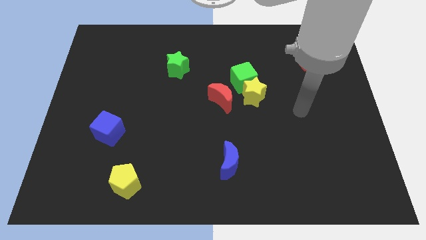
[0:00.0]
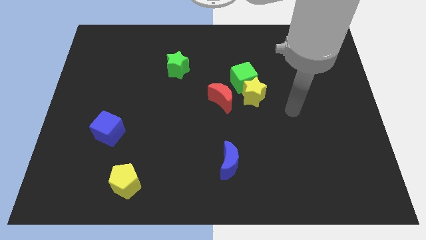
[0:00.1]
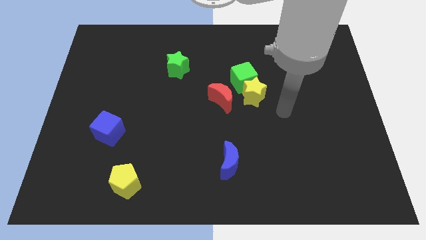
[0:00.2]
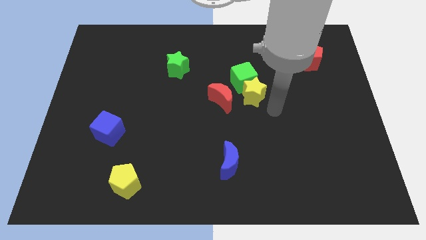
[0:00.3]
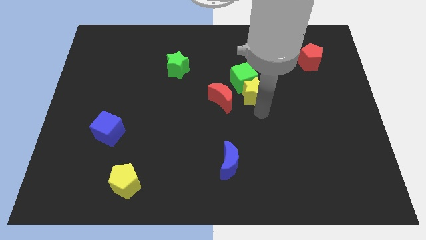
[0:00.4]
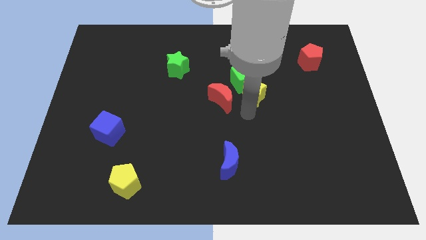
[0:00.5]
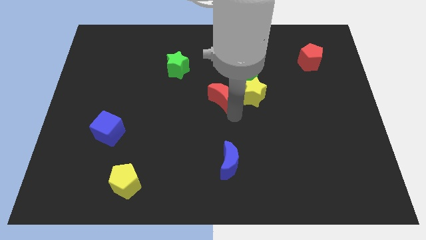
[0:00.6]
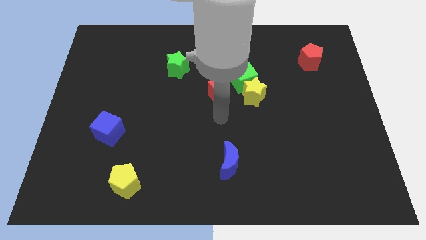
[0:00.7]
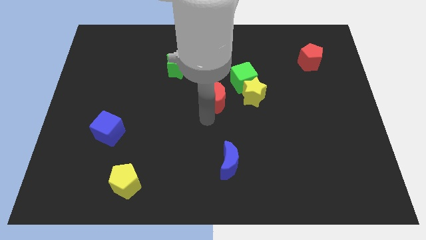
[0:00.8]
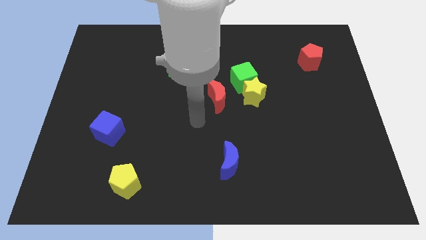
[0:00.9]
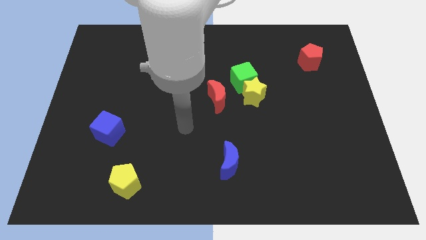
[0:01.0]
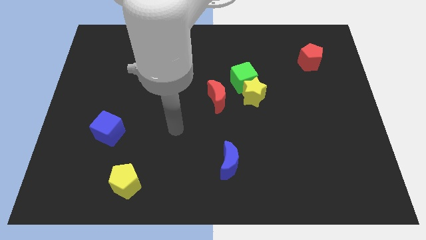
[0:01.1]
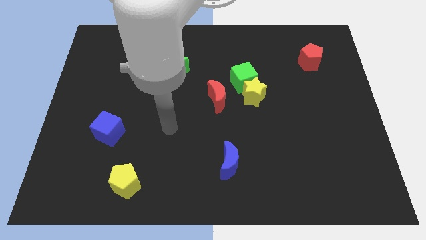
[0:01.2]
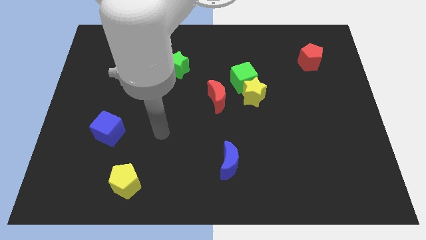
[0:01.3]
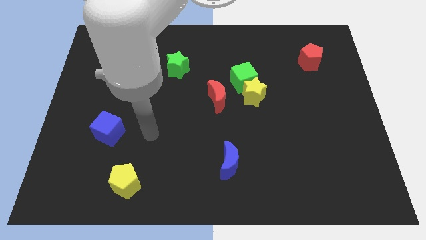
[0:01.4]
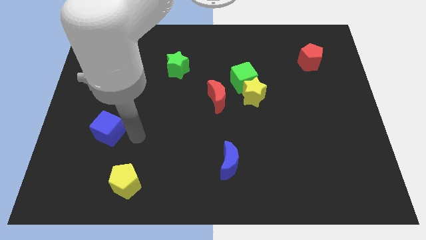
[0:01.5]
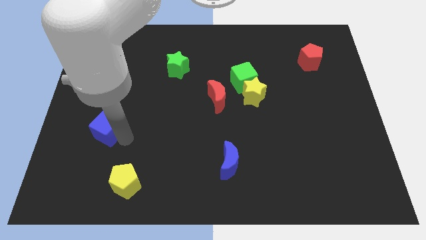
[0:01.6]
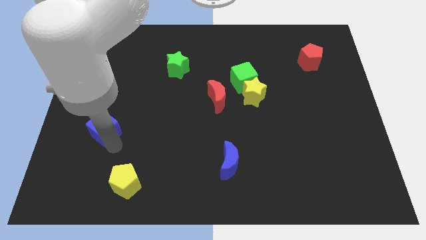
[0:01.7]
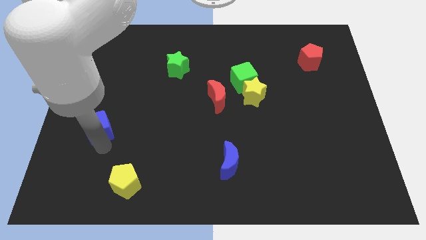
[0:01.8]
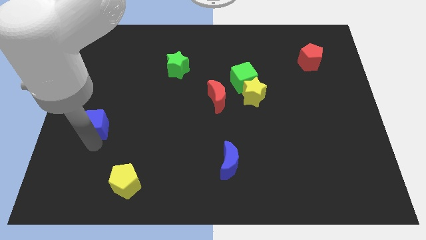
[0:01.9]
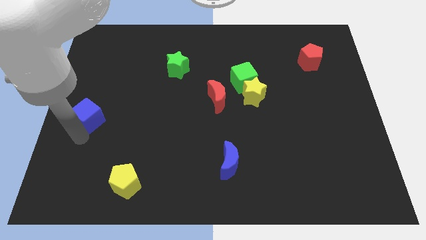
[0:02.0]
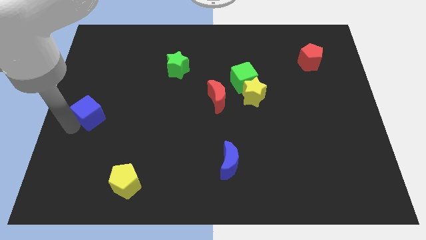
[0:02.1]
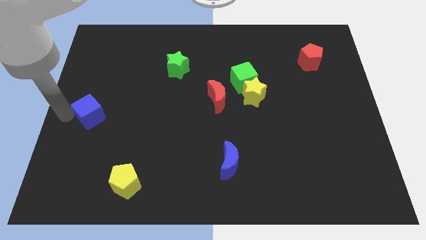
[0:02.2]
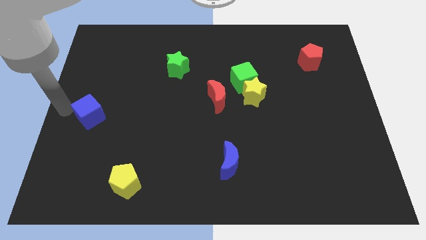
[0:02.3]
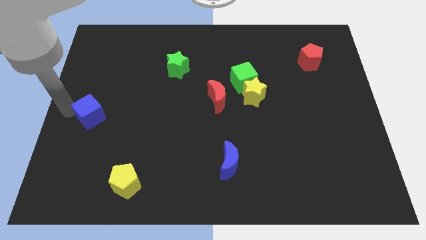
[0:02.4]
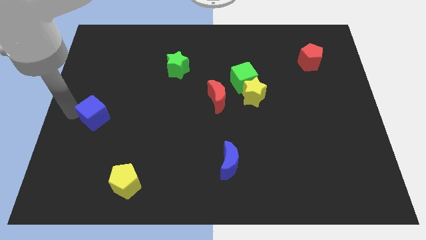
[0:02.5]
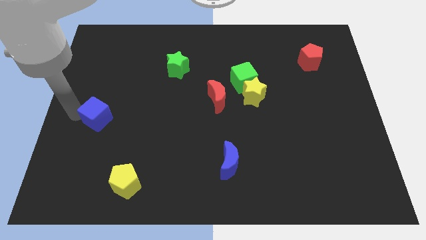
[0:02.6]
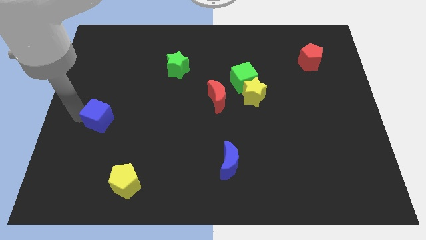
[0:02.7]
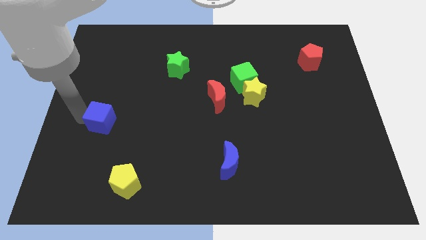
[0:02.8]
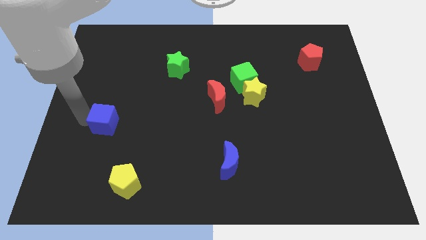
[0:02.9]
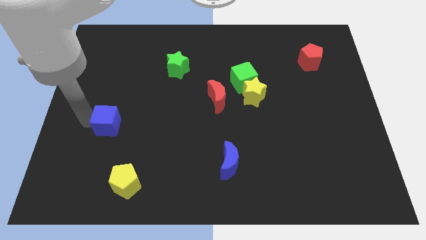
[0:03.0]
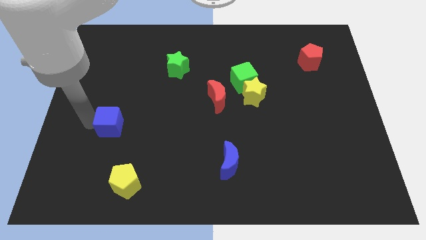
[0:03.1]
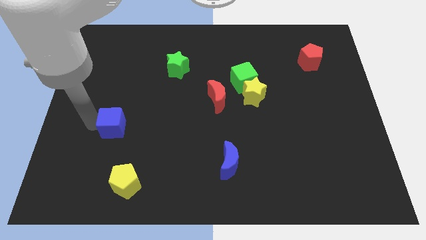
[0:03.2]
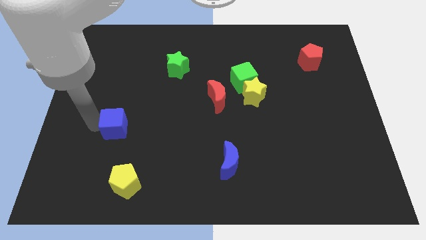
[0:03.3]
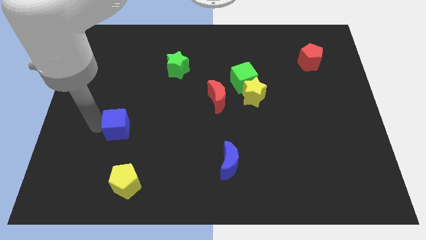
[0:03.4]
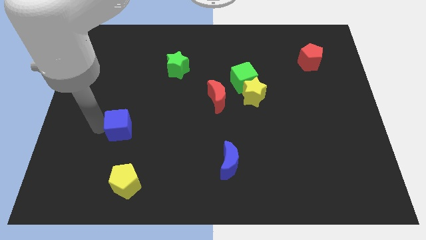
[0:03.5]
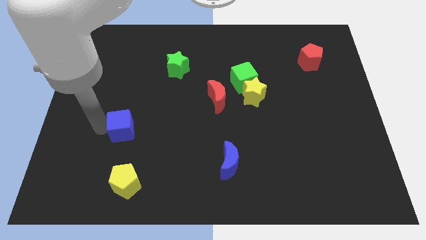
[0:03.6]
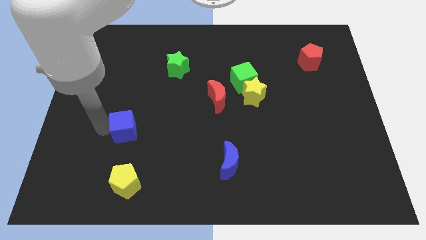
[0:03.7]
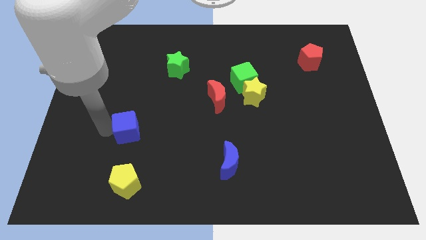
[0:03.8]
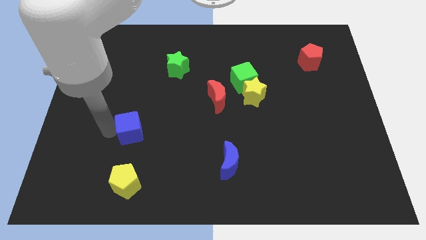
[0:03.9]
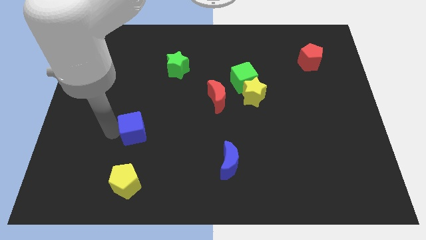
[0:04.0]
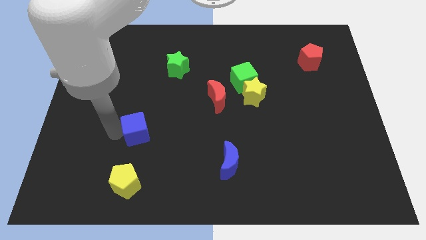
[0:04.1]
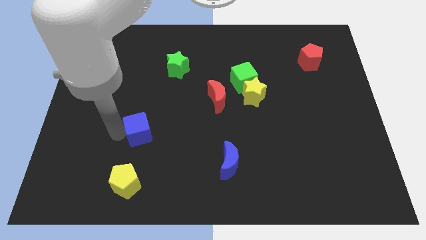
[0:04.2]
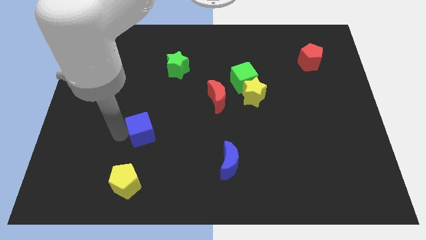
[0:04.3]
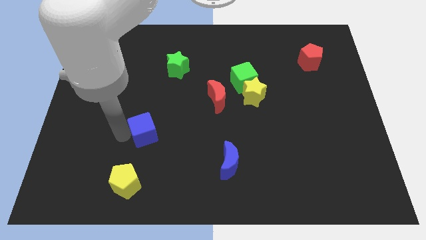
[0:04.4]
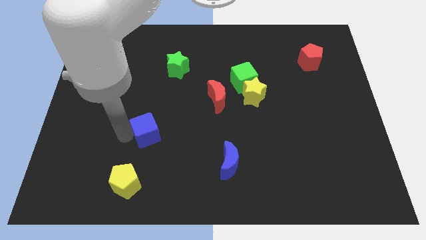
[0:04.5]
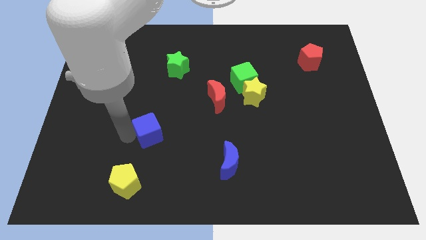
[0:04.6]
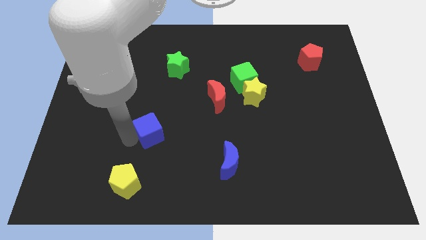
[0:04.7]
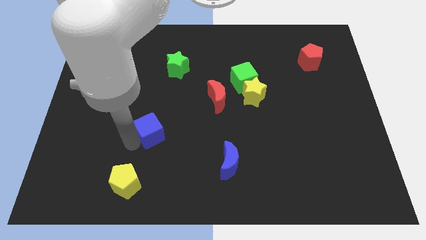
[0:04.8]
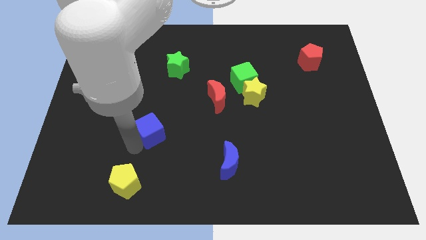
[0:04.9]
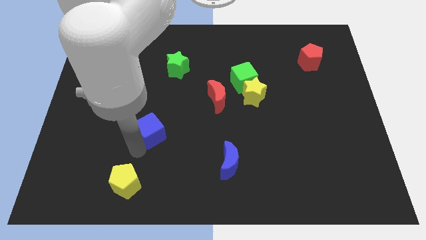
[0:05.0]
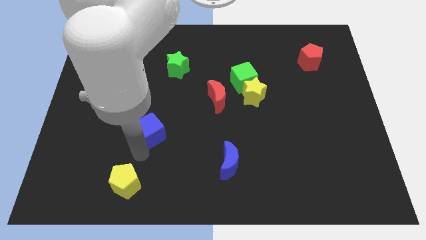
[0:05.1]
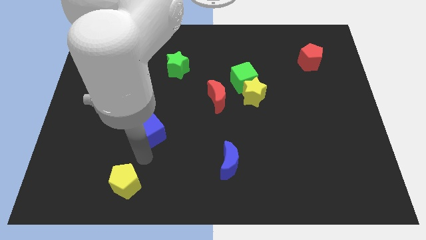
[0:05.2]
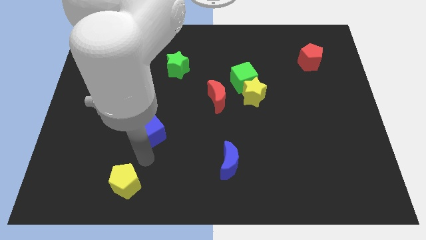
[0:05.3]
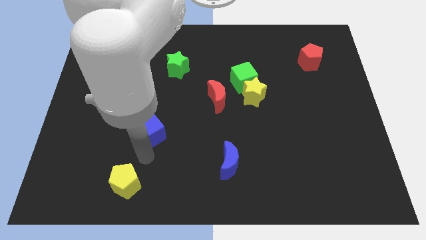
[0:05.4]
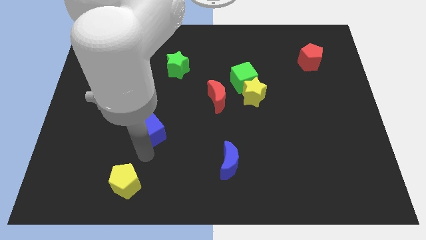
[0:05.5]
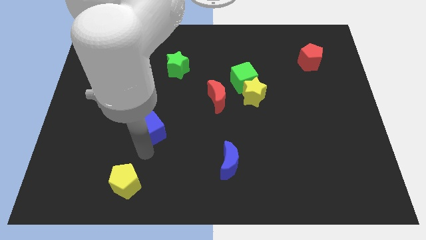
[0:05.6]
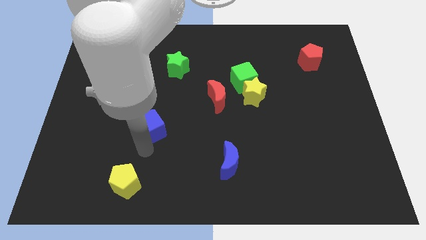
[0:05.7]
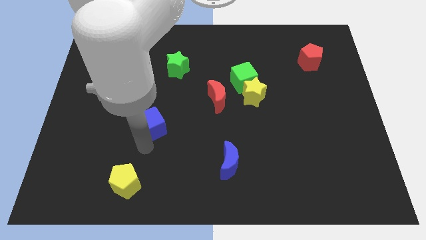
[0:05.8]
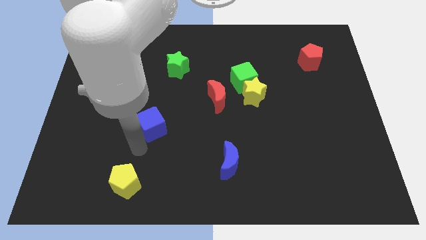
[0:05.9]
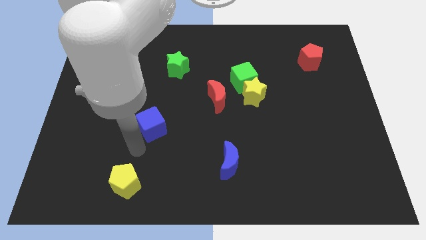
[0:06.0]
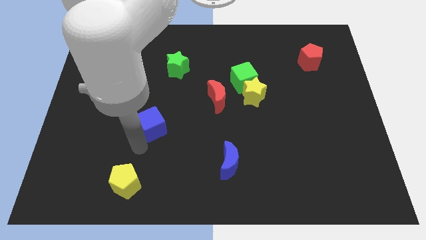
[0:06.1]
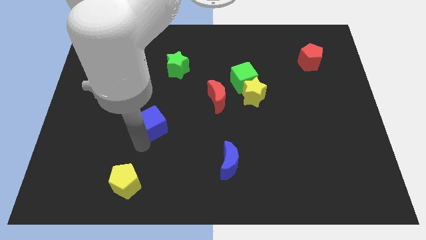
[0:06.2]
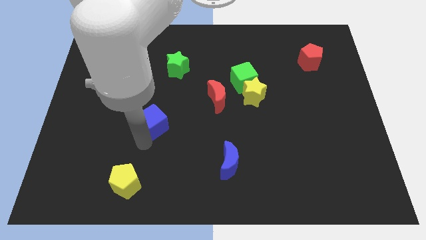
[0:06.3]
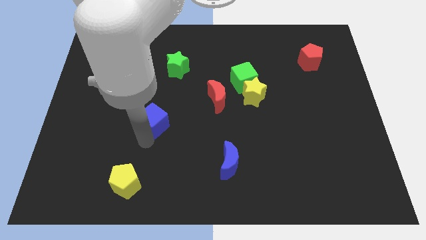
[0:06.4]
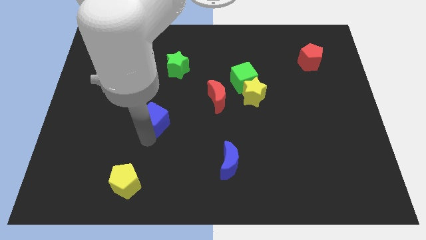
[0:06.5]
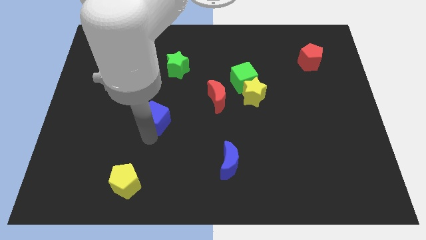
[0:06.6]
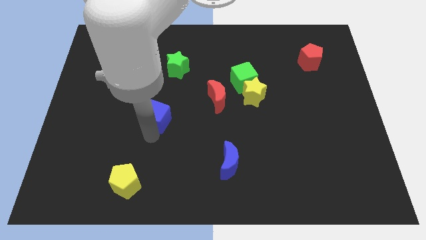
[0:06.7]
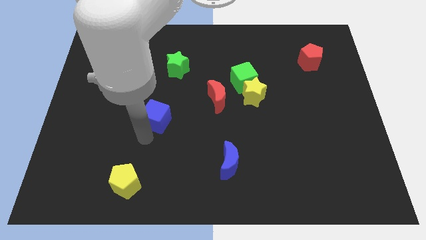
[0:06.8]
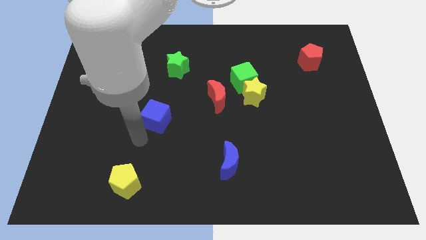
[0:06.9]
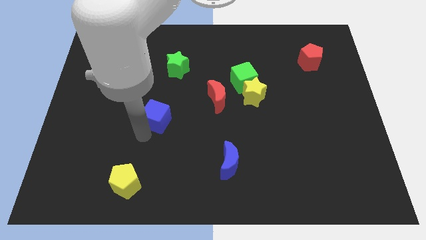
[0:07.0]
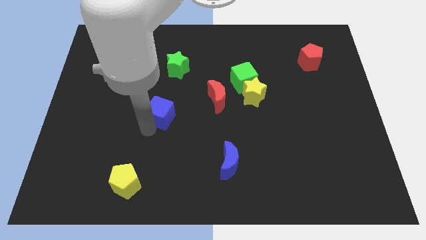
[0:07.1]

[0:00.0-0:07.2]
put the blue cube to the bottom side of the green star
